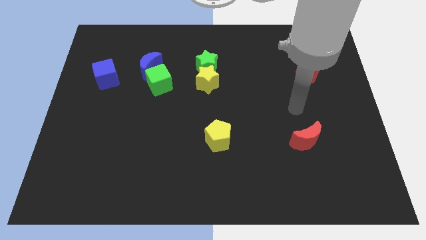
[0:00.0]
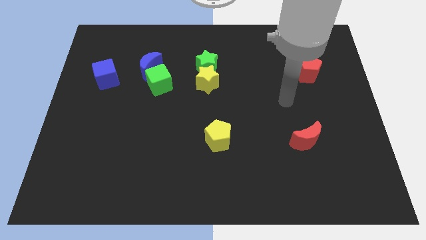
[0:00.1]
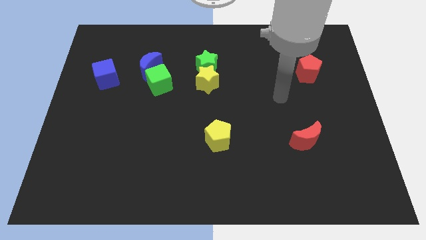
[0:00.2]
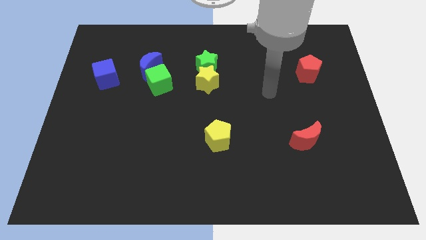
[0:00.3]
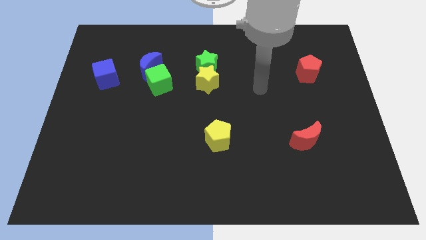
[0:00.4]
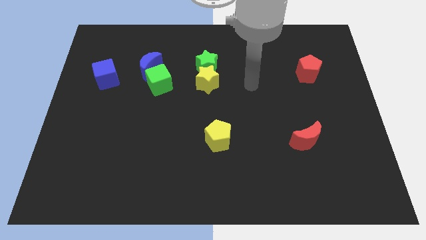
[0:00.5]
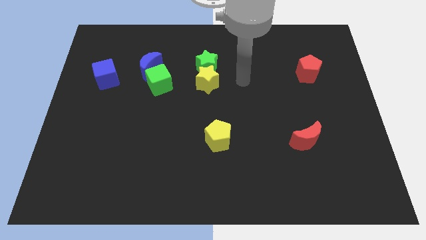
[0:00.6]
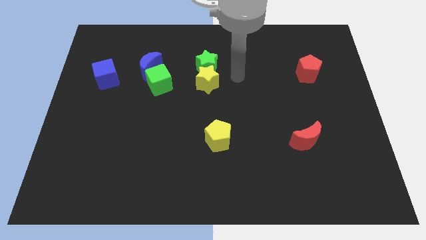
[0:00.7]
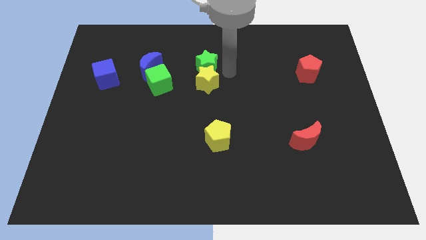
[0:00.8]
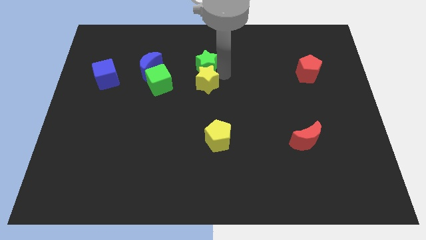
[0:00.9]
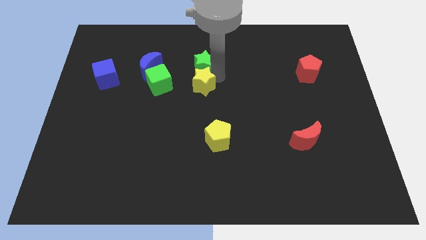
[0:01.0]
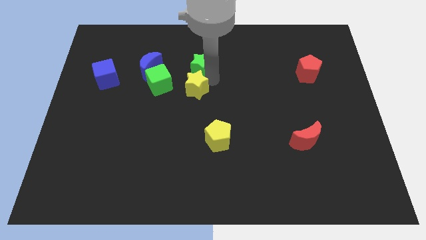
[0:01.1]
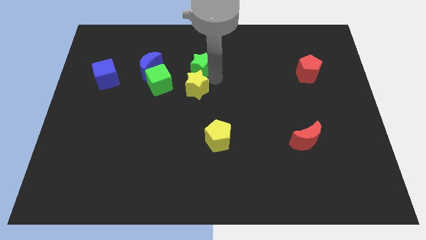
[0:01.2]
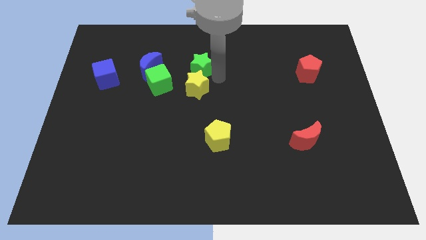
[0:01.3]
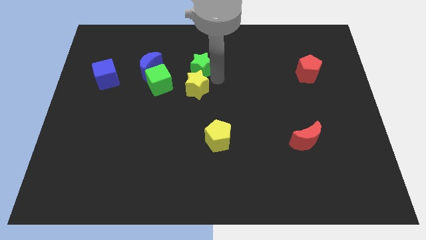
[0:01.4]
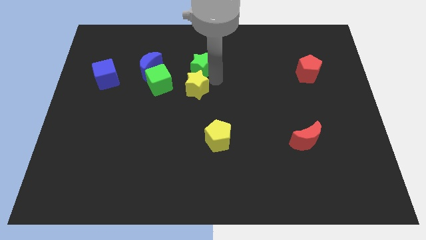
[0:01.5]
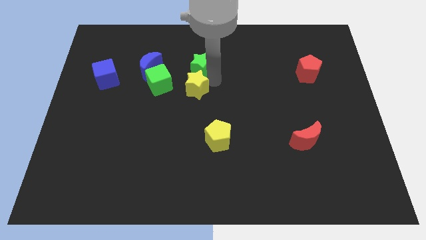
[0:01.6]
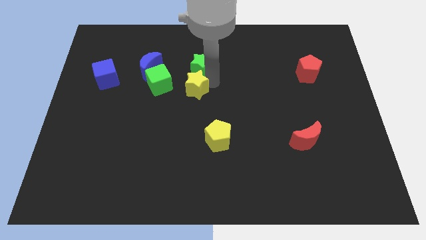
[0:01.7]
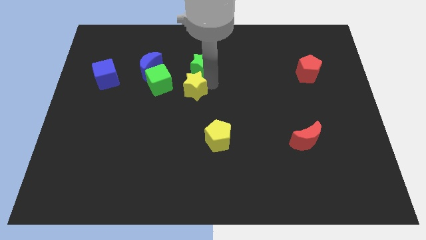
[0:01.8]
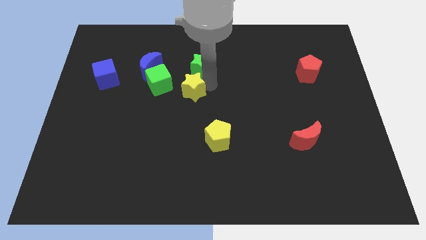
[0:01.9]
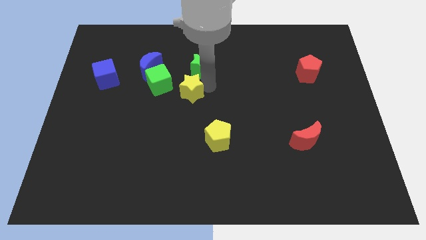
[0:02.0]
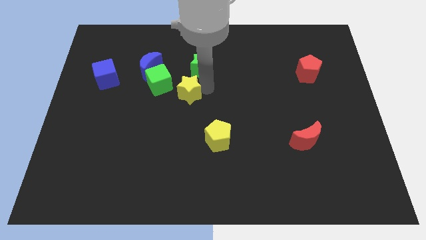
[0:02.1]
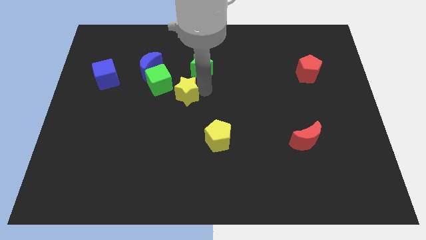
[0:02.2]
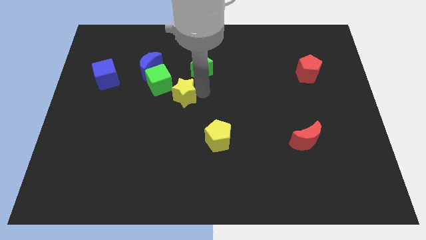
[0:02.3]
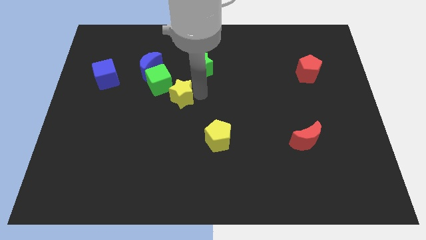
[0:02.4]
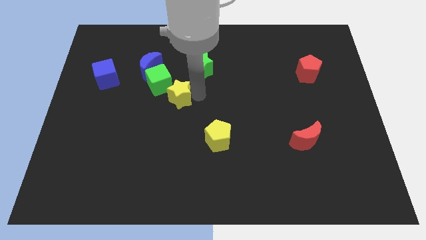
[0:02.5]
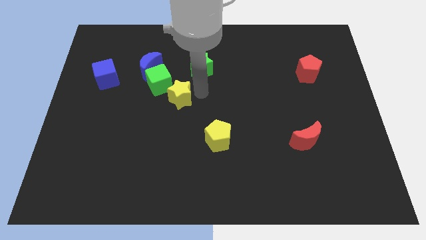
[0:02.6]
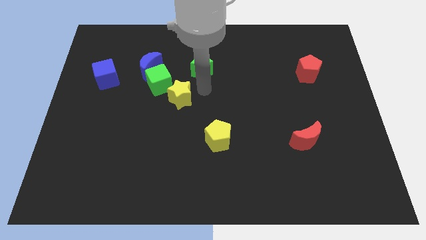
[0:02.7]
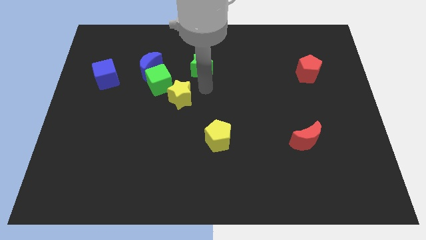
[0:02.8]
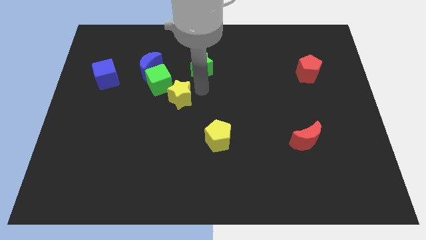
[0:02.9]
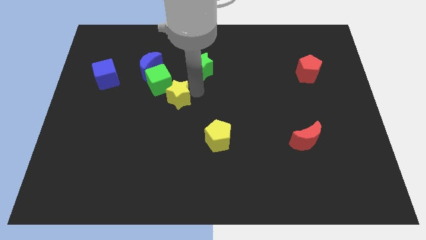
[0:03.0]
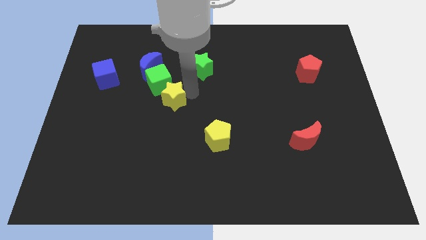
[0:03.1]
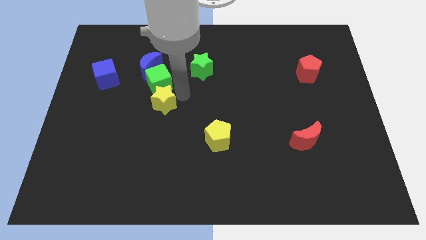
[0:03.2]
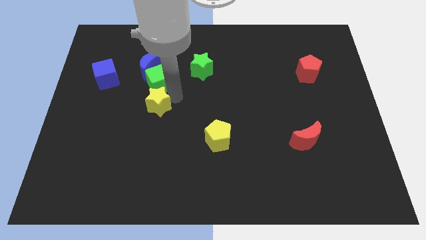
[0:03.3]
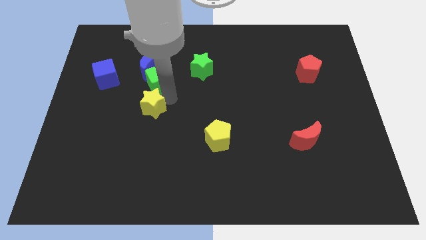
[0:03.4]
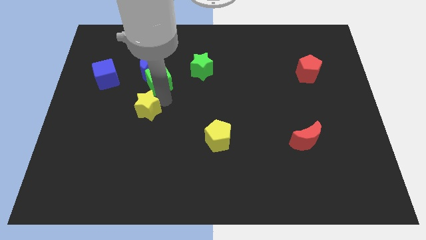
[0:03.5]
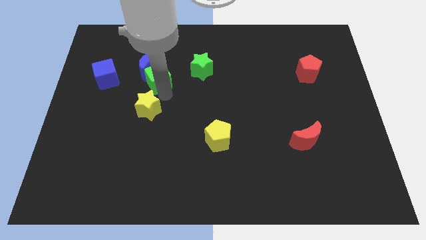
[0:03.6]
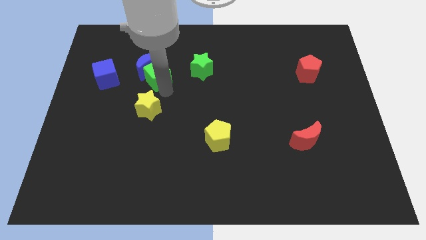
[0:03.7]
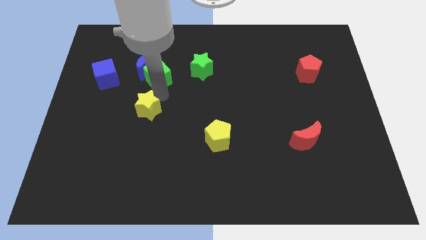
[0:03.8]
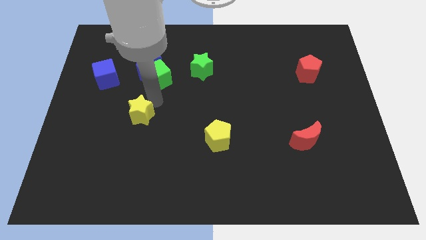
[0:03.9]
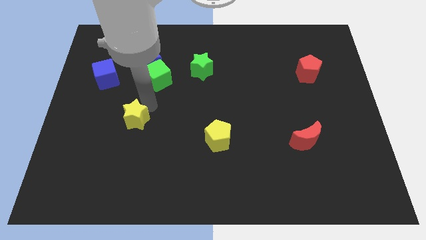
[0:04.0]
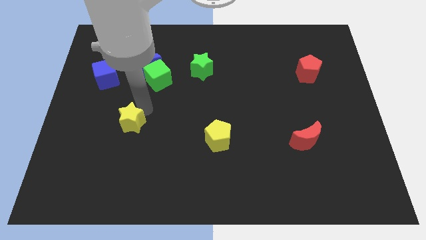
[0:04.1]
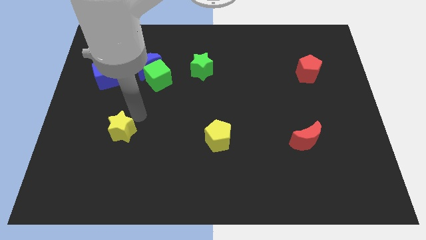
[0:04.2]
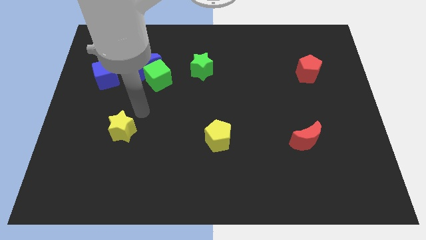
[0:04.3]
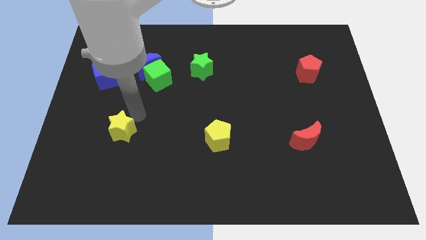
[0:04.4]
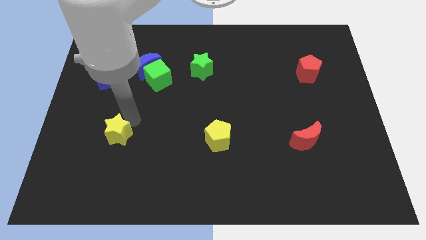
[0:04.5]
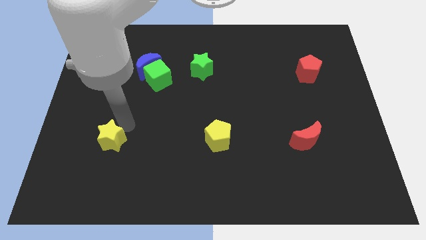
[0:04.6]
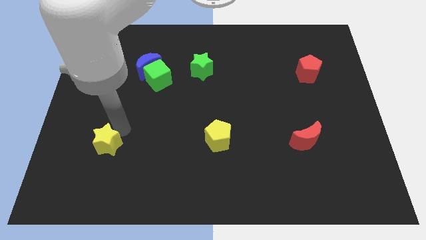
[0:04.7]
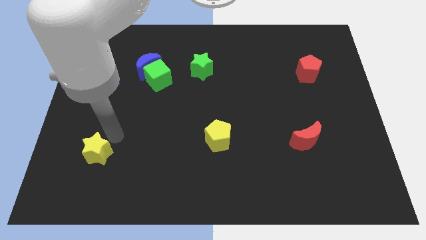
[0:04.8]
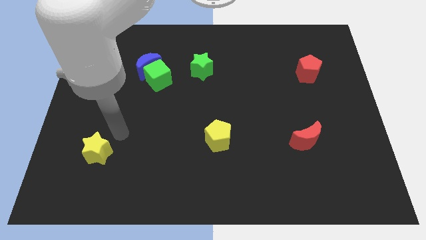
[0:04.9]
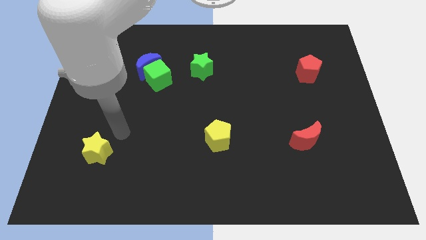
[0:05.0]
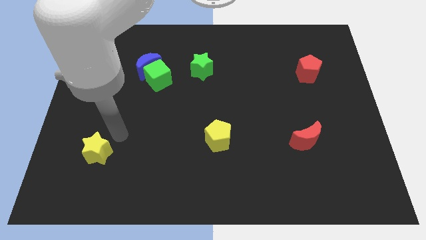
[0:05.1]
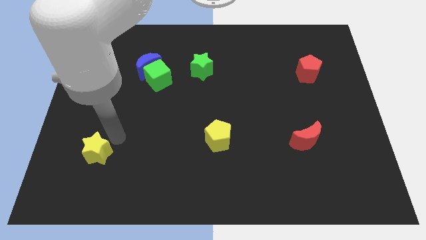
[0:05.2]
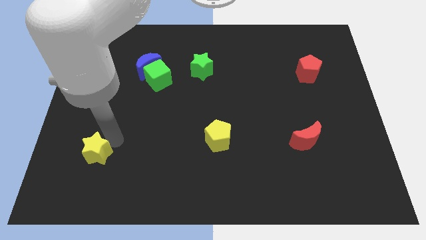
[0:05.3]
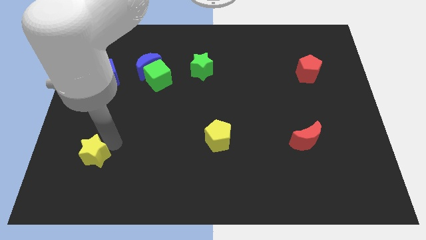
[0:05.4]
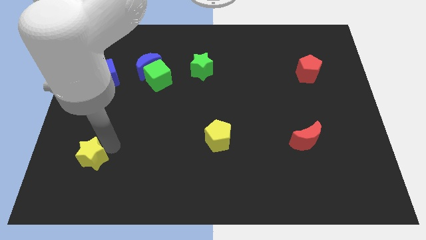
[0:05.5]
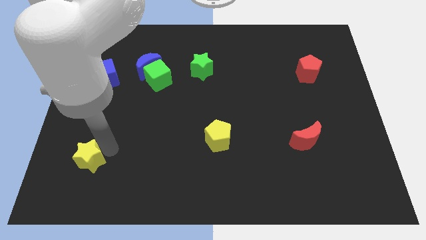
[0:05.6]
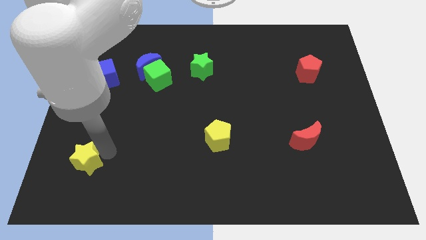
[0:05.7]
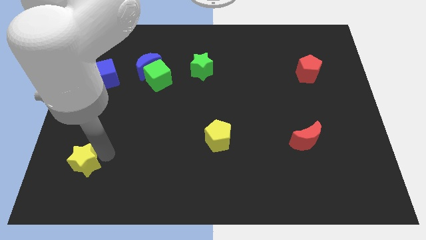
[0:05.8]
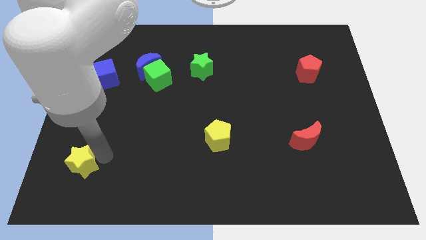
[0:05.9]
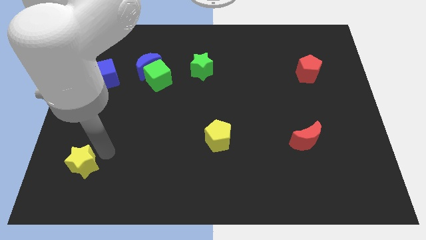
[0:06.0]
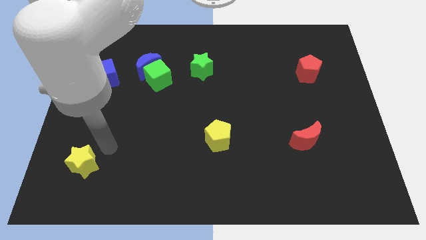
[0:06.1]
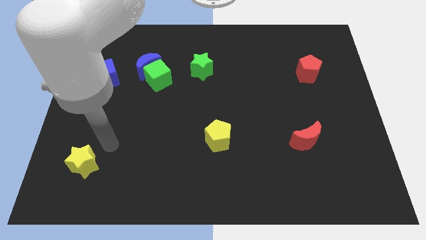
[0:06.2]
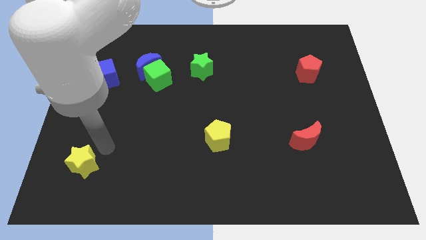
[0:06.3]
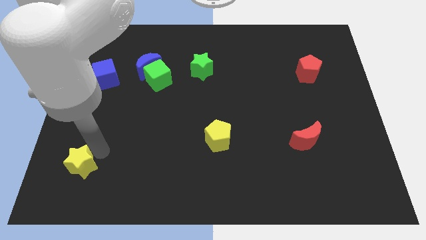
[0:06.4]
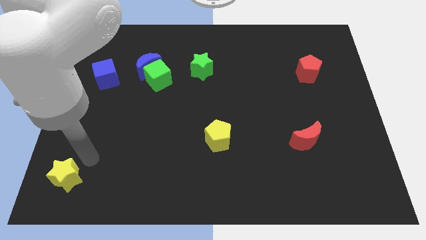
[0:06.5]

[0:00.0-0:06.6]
push the yellow star to the lower left corner
